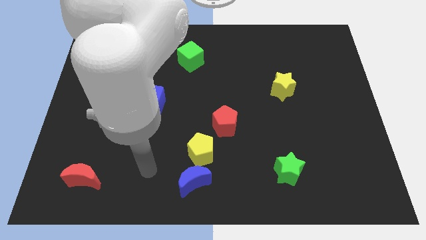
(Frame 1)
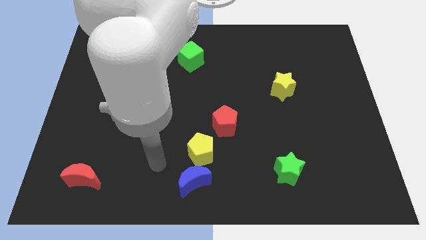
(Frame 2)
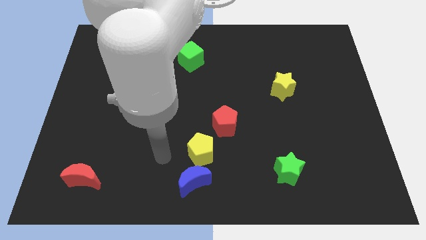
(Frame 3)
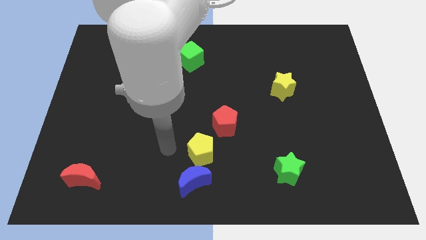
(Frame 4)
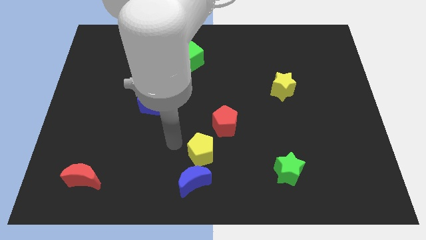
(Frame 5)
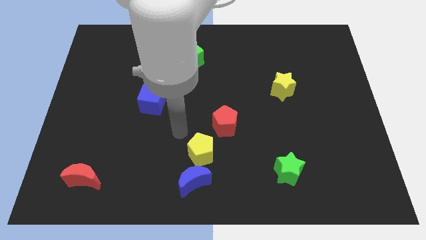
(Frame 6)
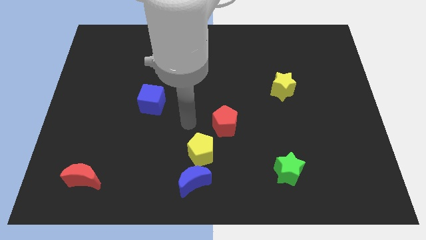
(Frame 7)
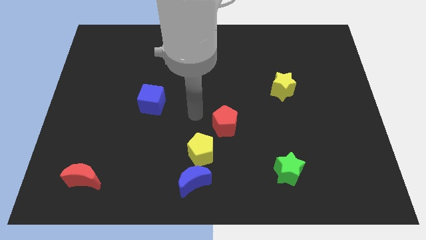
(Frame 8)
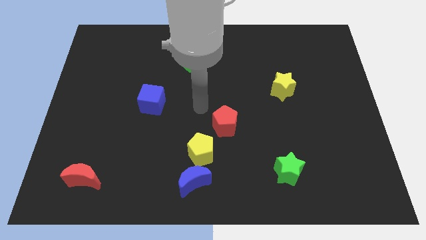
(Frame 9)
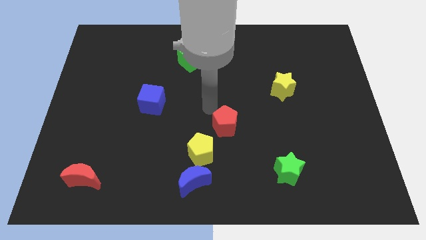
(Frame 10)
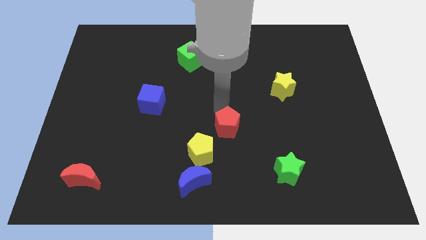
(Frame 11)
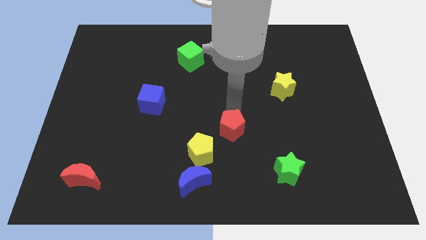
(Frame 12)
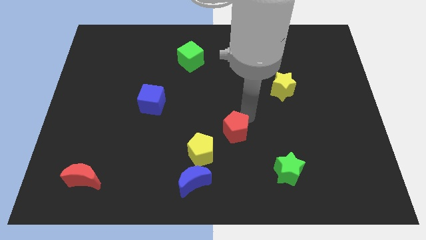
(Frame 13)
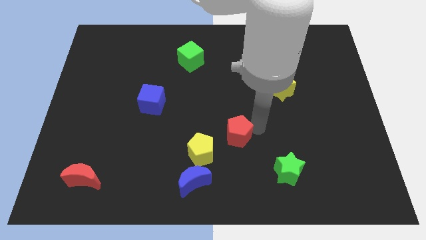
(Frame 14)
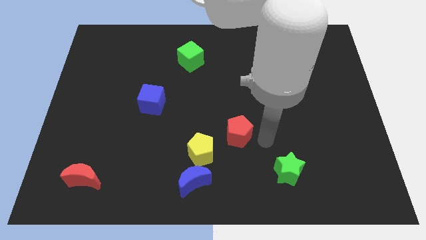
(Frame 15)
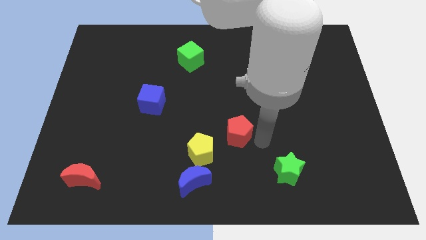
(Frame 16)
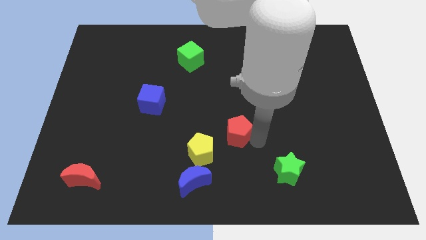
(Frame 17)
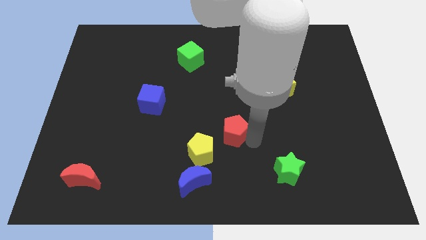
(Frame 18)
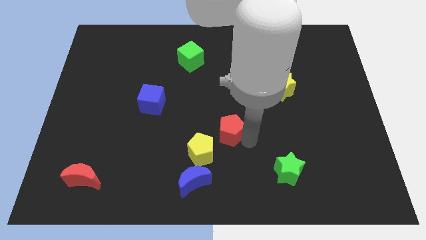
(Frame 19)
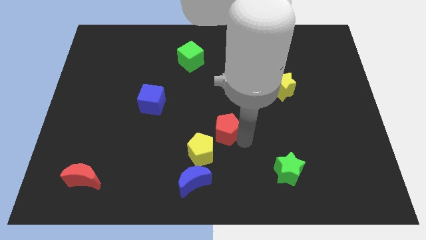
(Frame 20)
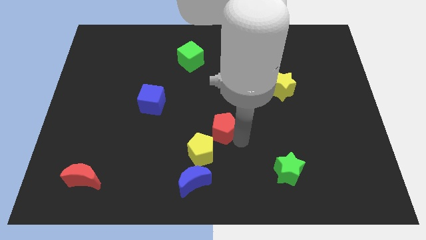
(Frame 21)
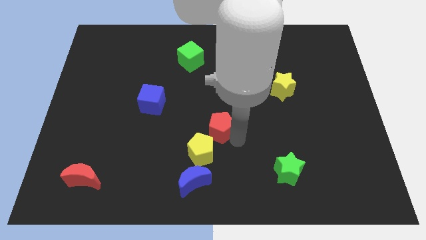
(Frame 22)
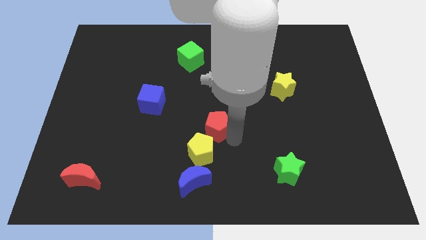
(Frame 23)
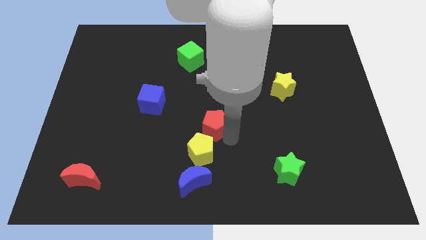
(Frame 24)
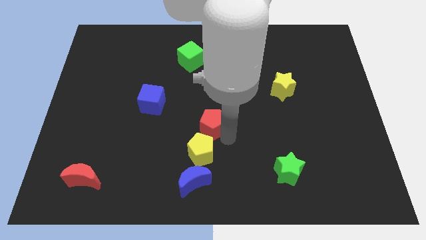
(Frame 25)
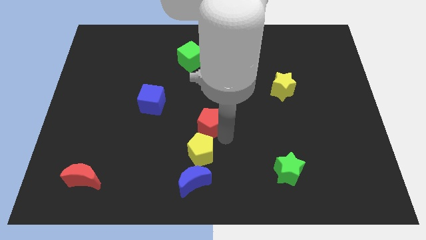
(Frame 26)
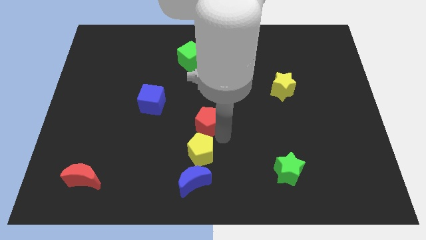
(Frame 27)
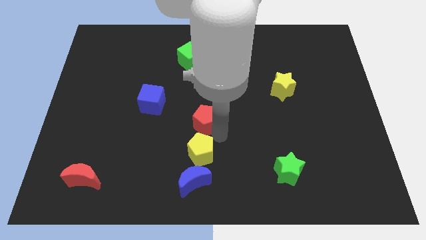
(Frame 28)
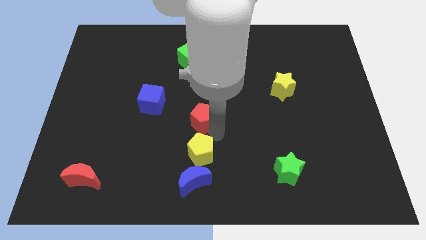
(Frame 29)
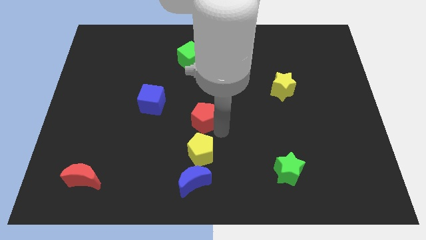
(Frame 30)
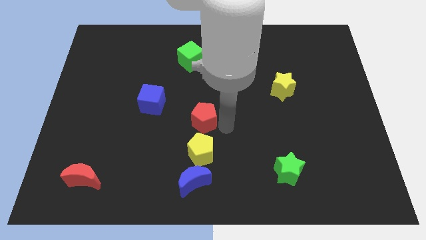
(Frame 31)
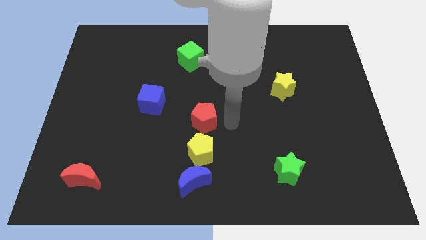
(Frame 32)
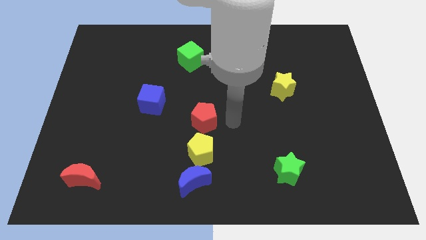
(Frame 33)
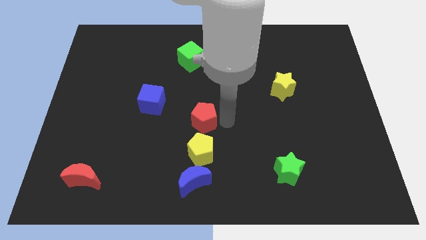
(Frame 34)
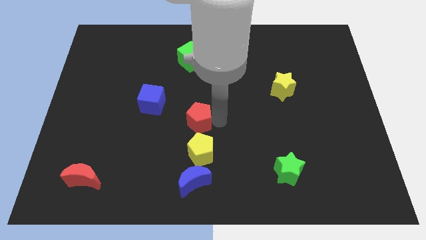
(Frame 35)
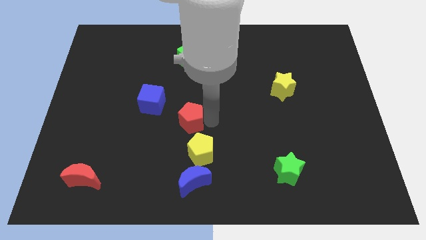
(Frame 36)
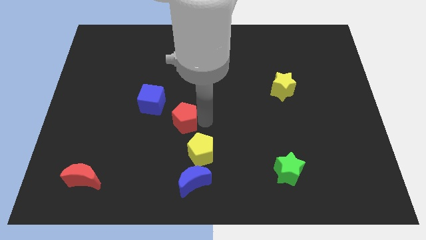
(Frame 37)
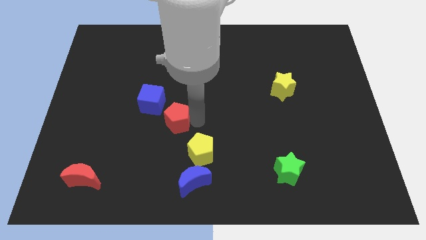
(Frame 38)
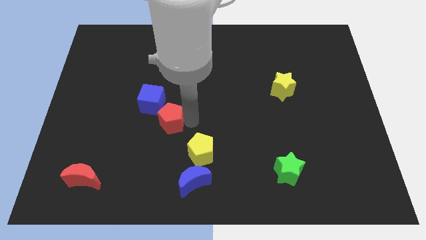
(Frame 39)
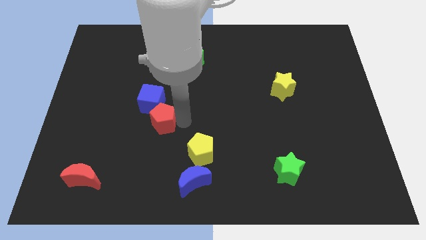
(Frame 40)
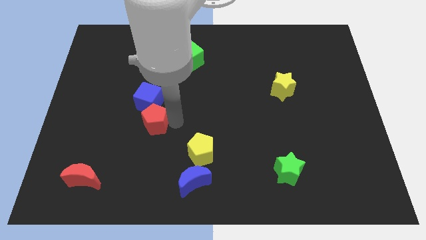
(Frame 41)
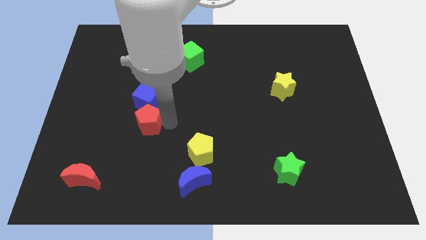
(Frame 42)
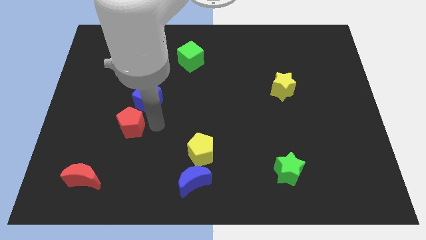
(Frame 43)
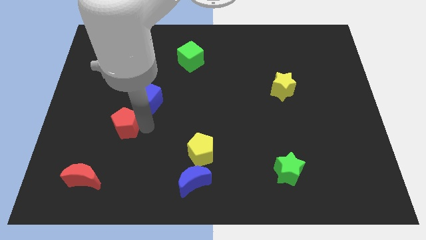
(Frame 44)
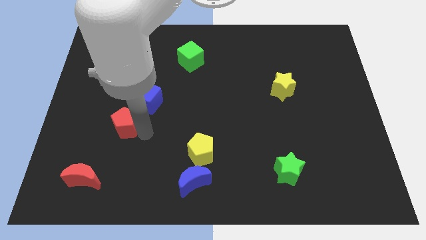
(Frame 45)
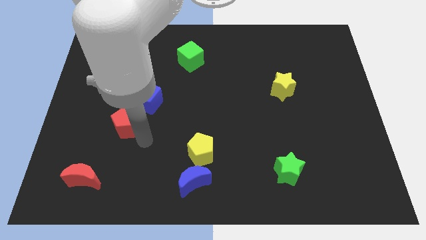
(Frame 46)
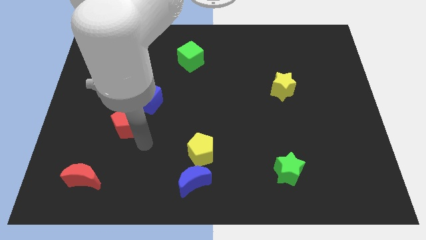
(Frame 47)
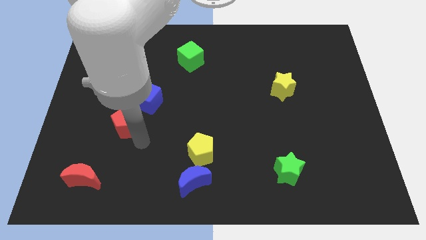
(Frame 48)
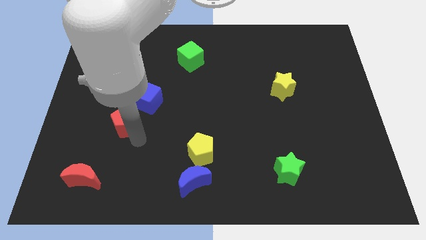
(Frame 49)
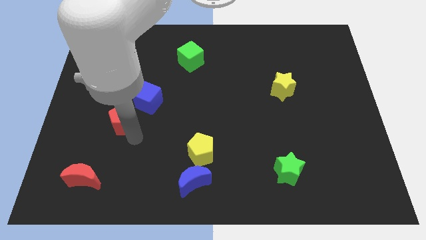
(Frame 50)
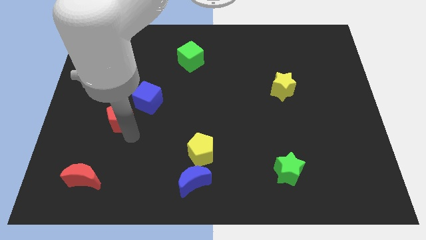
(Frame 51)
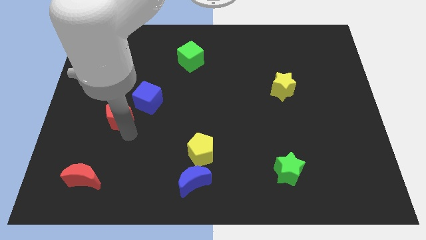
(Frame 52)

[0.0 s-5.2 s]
push the red pentagon left of the blue cube
